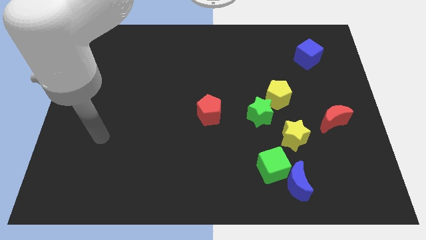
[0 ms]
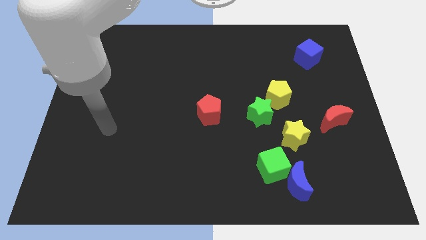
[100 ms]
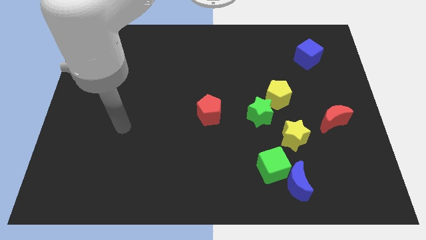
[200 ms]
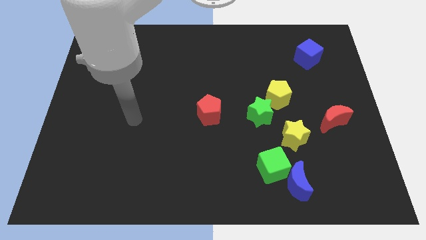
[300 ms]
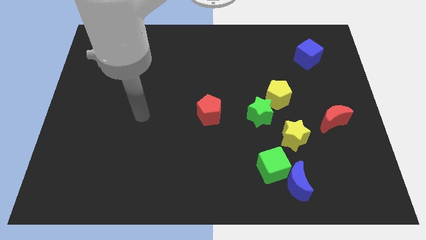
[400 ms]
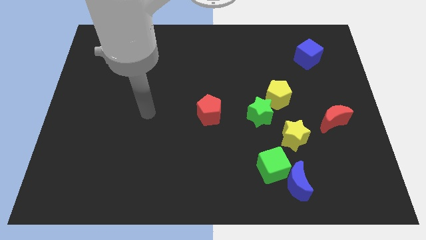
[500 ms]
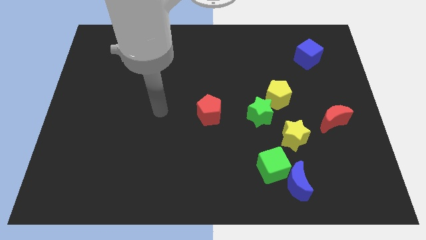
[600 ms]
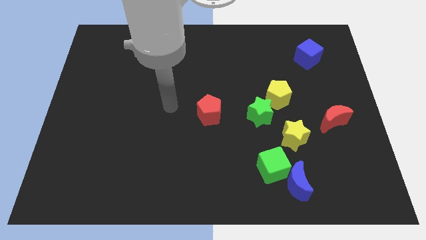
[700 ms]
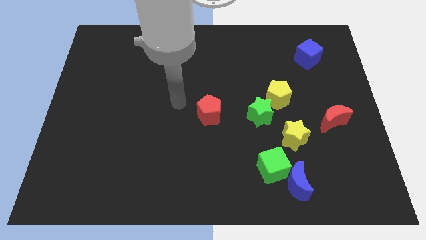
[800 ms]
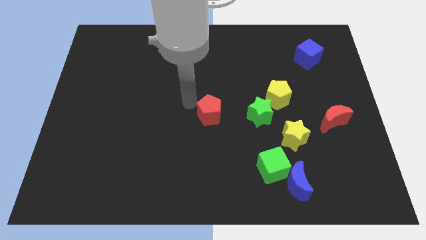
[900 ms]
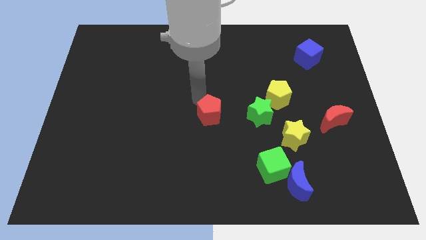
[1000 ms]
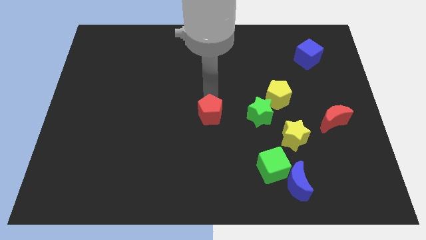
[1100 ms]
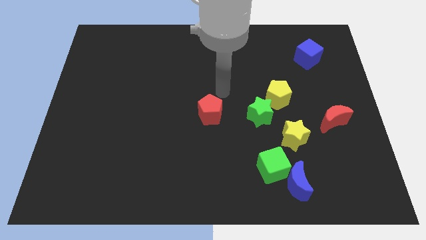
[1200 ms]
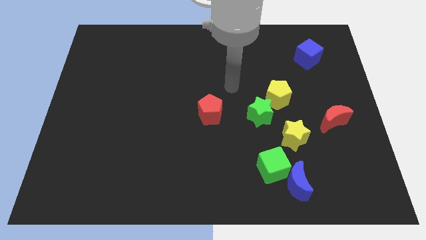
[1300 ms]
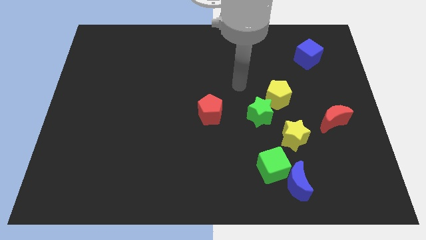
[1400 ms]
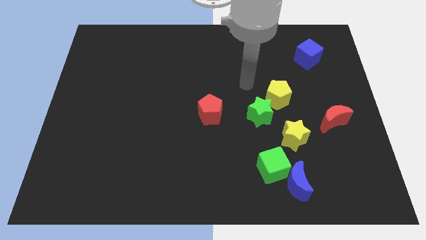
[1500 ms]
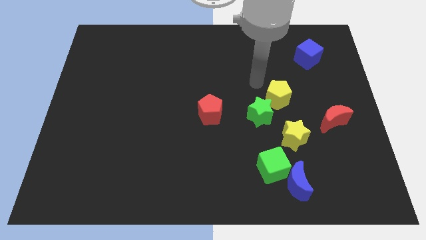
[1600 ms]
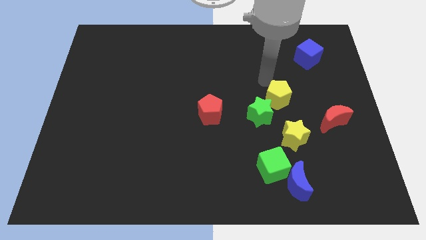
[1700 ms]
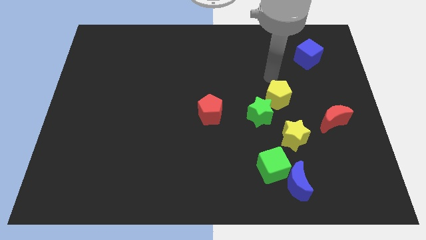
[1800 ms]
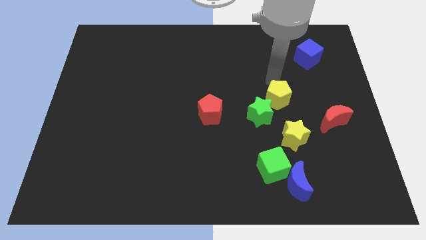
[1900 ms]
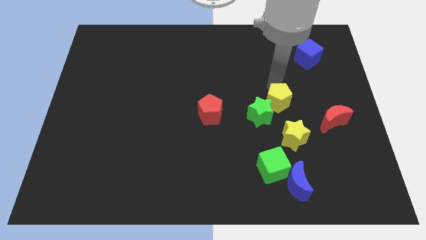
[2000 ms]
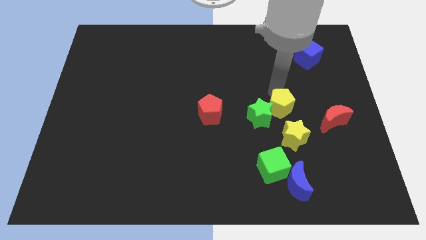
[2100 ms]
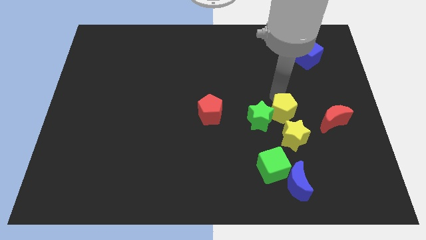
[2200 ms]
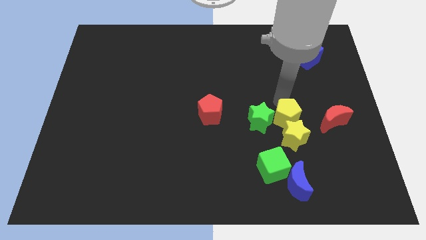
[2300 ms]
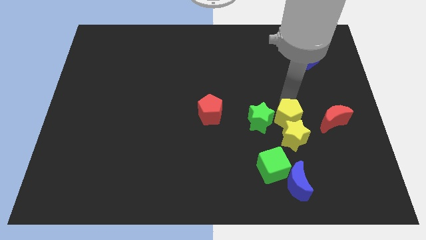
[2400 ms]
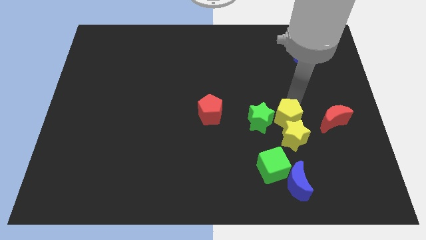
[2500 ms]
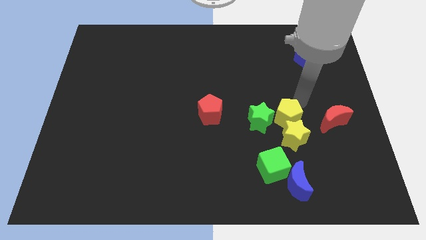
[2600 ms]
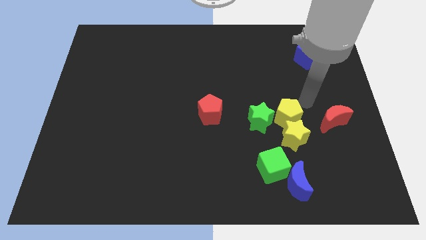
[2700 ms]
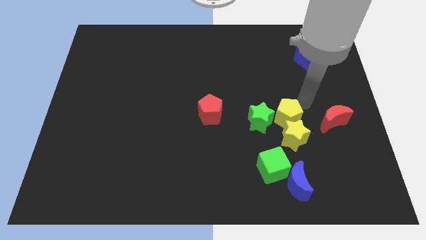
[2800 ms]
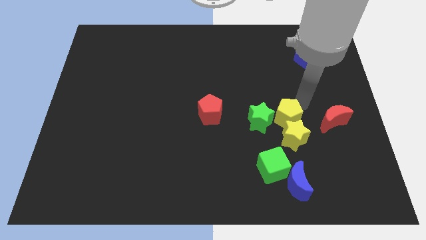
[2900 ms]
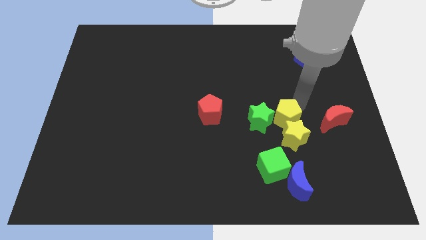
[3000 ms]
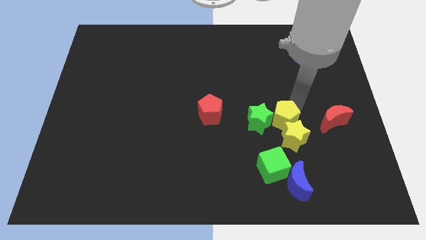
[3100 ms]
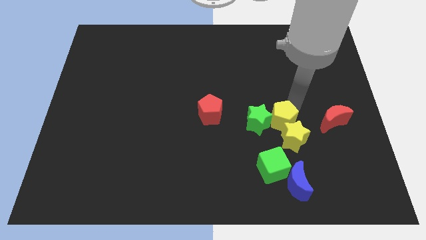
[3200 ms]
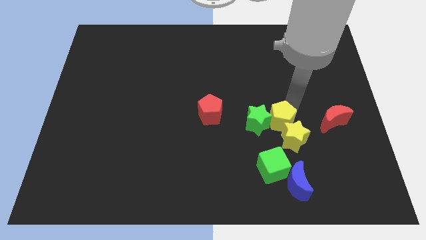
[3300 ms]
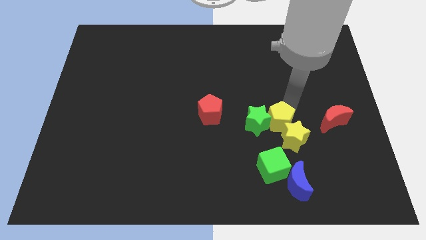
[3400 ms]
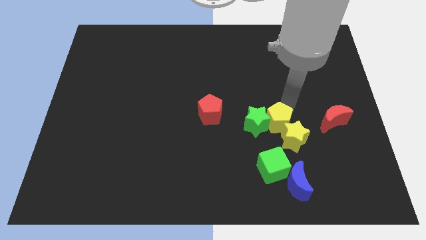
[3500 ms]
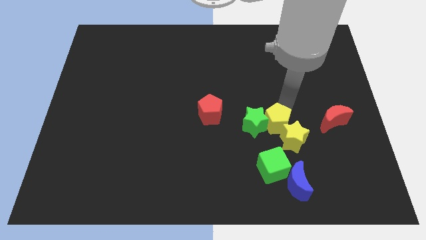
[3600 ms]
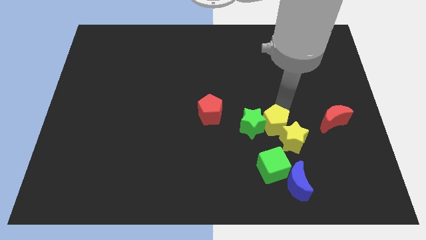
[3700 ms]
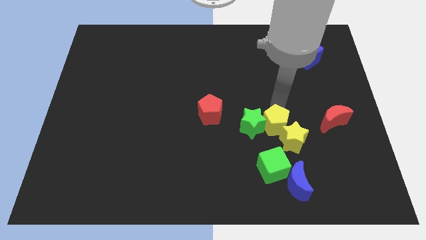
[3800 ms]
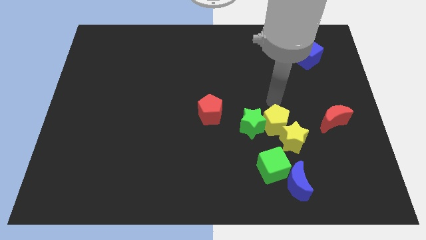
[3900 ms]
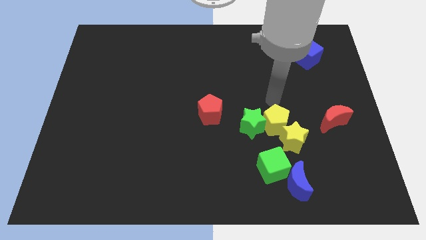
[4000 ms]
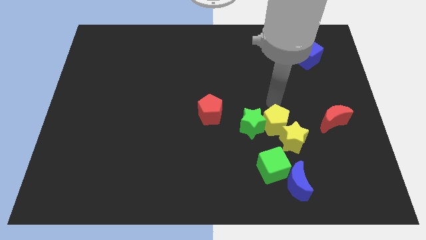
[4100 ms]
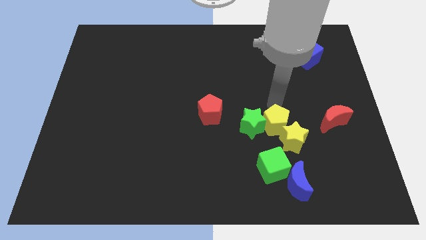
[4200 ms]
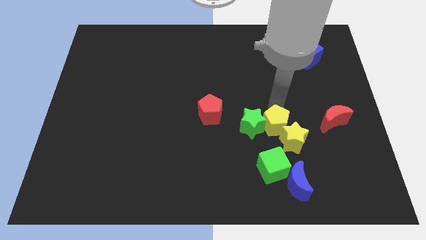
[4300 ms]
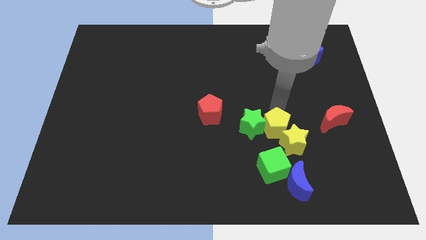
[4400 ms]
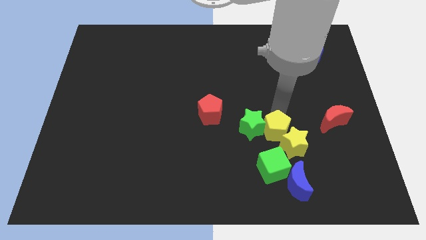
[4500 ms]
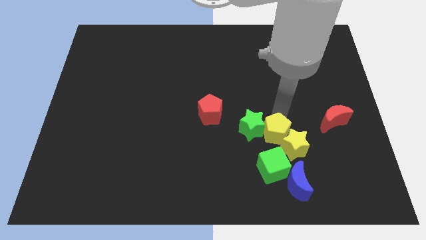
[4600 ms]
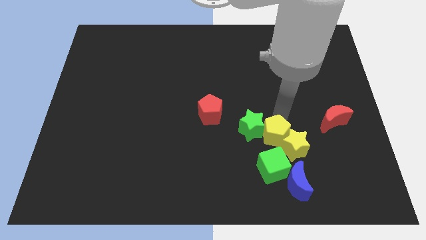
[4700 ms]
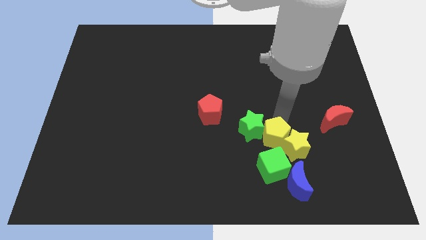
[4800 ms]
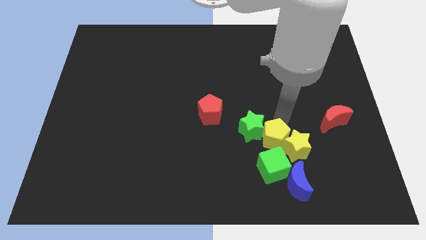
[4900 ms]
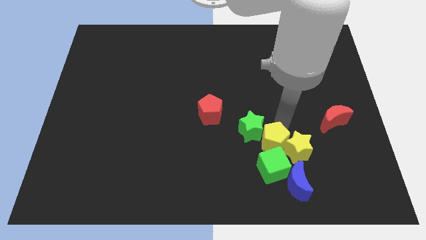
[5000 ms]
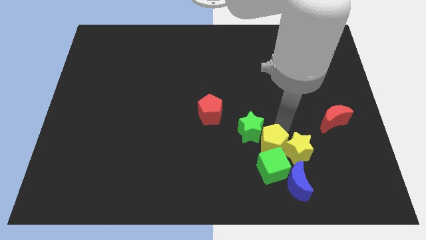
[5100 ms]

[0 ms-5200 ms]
push the yellow pentagon towards the green cube

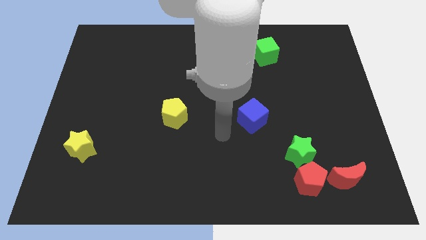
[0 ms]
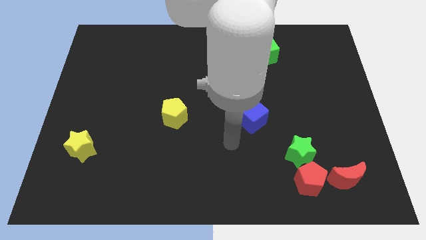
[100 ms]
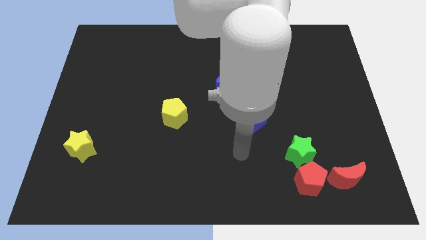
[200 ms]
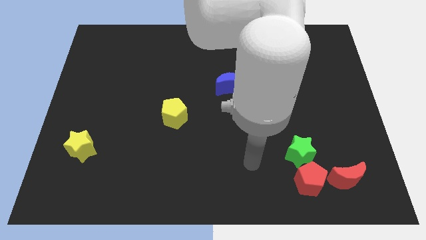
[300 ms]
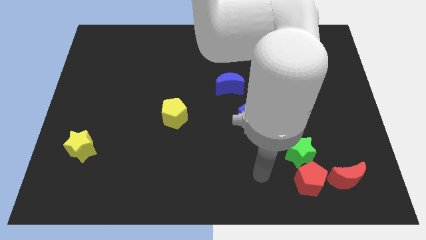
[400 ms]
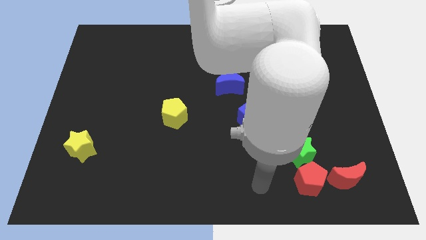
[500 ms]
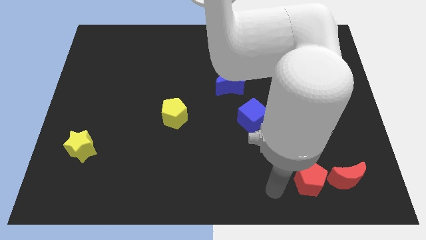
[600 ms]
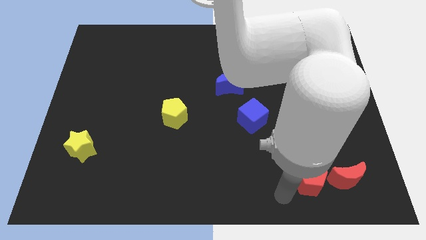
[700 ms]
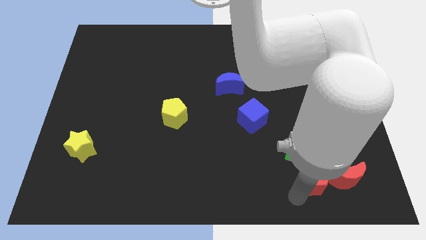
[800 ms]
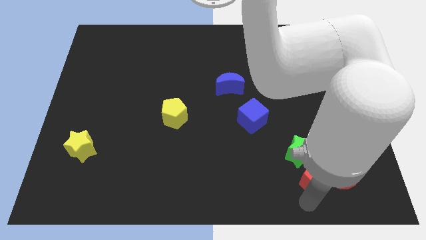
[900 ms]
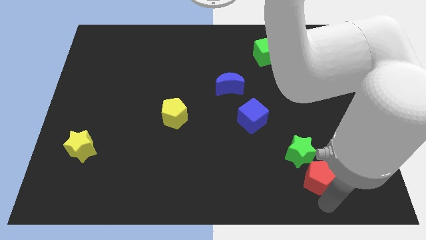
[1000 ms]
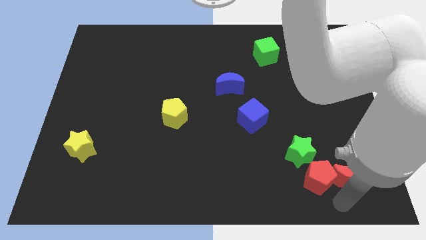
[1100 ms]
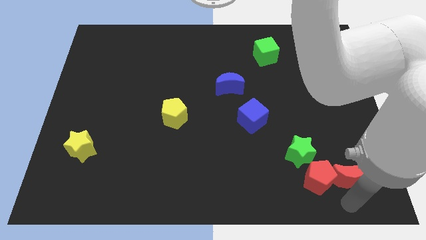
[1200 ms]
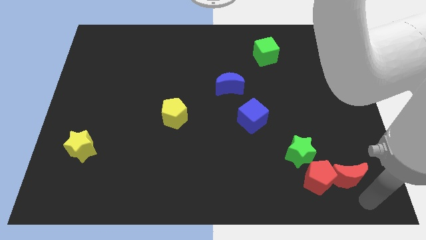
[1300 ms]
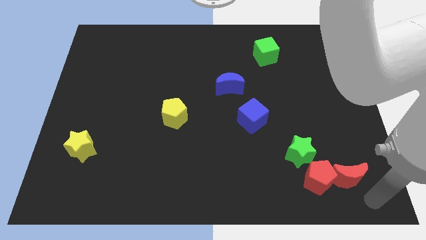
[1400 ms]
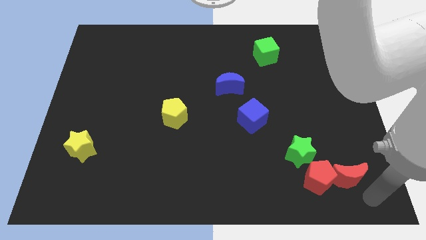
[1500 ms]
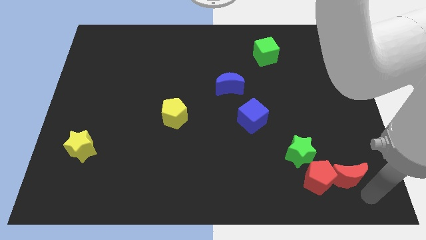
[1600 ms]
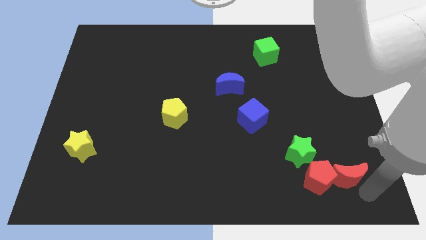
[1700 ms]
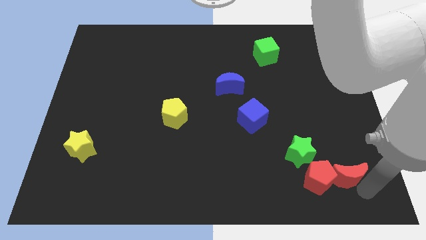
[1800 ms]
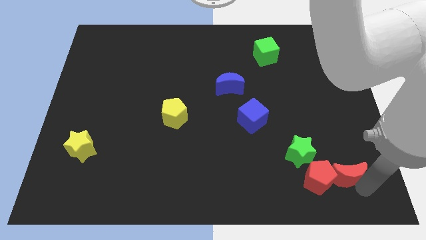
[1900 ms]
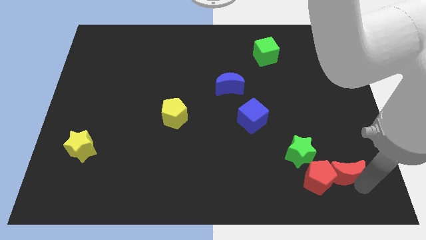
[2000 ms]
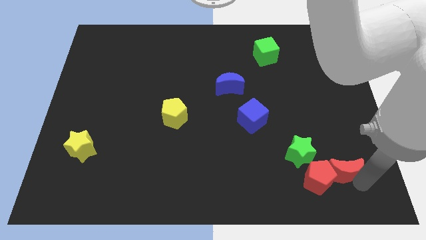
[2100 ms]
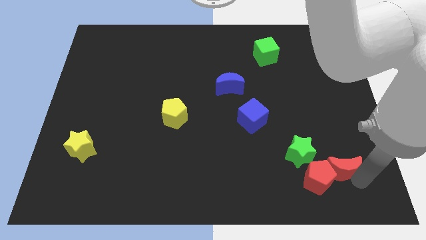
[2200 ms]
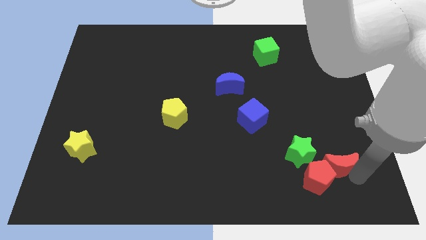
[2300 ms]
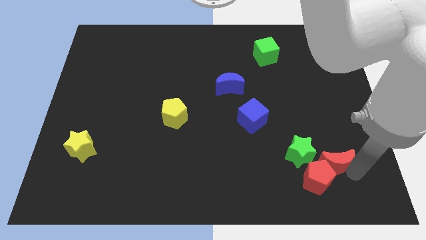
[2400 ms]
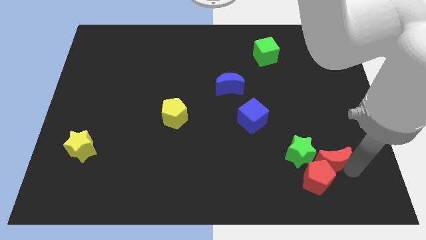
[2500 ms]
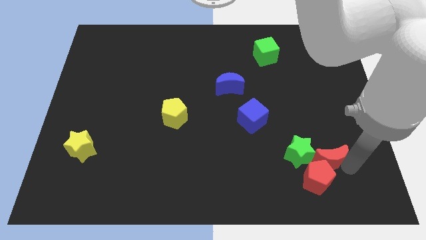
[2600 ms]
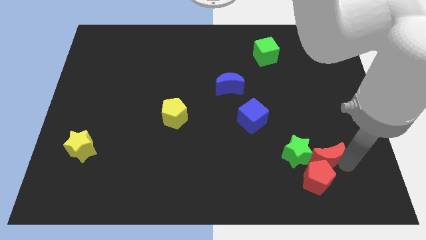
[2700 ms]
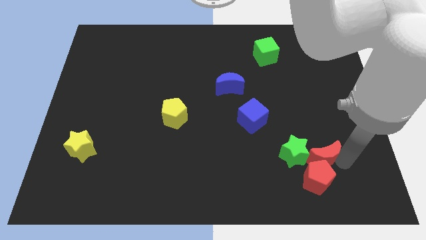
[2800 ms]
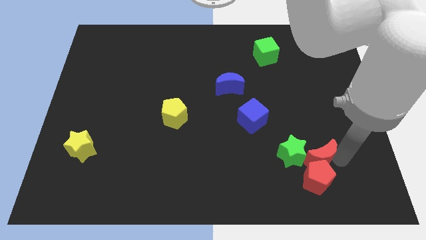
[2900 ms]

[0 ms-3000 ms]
put the red moon to the green star
